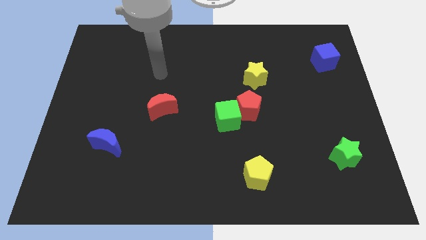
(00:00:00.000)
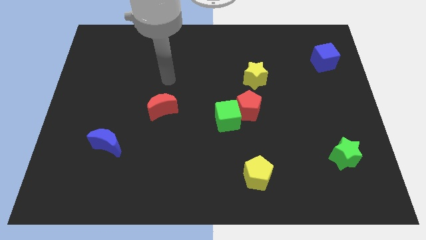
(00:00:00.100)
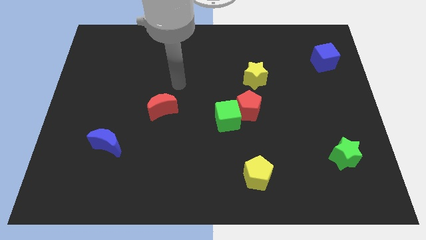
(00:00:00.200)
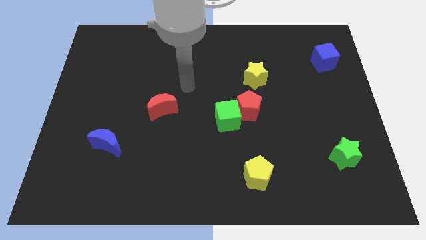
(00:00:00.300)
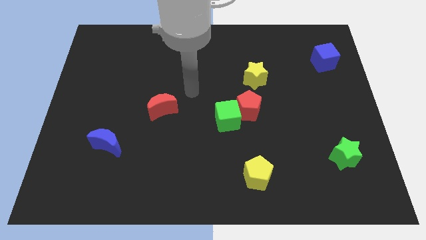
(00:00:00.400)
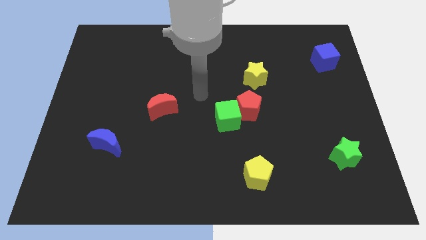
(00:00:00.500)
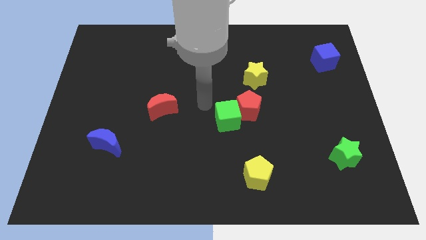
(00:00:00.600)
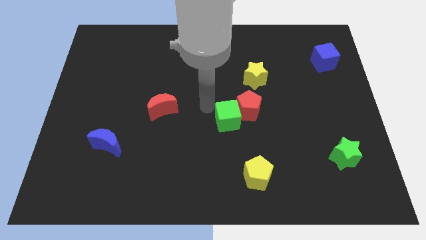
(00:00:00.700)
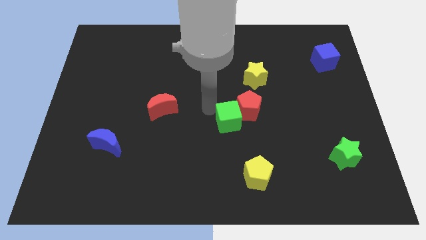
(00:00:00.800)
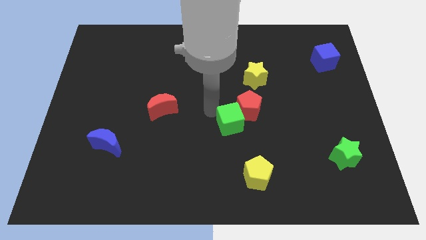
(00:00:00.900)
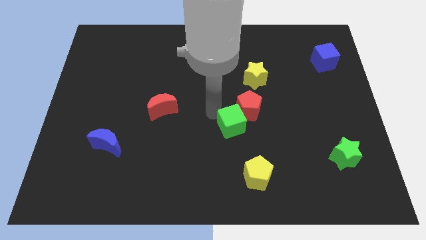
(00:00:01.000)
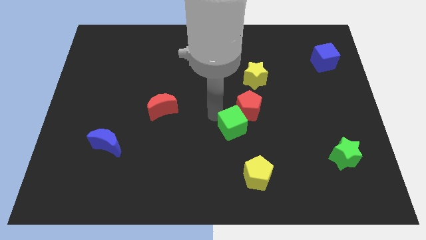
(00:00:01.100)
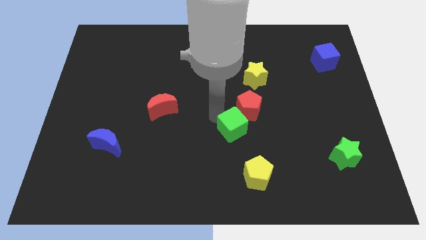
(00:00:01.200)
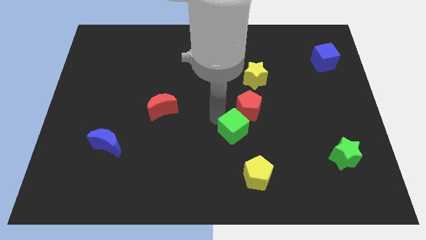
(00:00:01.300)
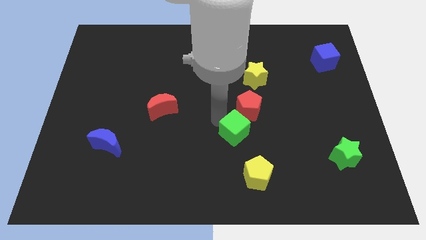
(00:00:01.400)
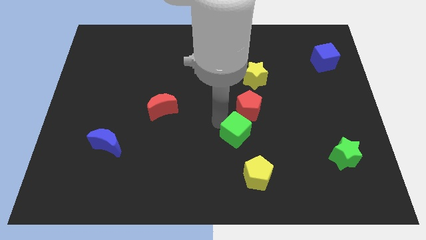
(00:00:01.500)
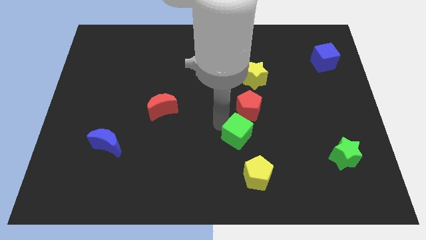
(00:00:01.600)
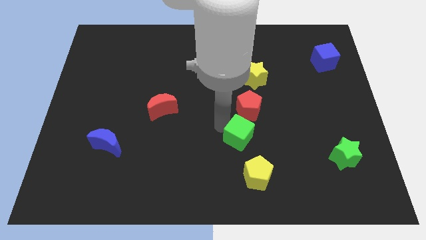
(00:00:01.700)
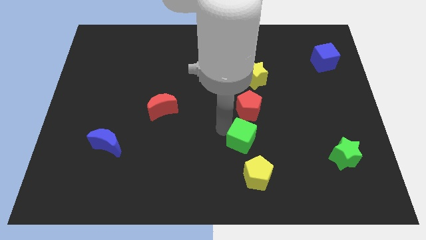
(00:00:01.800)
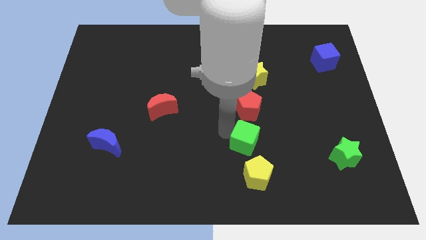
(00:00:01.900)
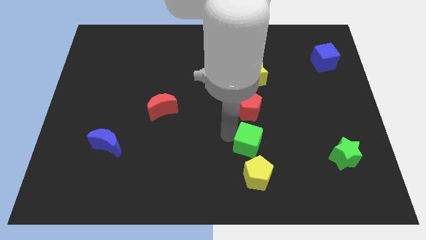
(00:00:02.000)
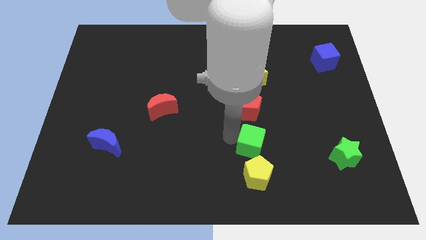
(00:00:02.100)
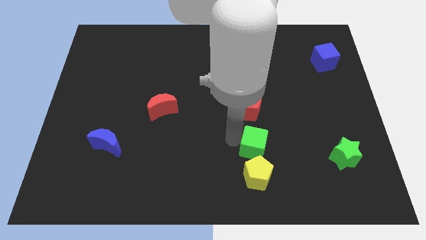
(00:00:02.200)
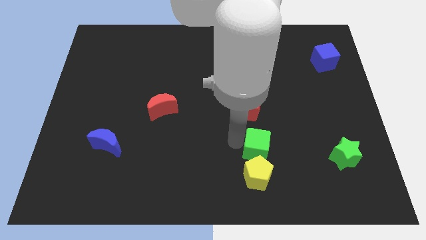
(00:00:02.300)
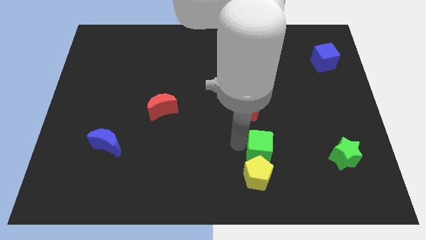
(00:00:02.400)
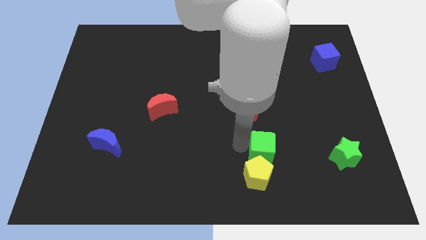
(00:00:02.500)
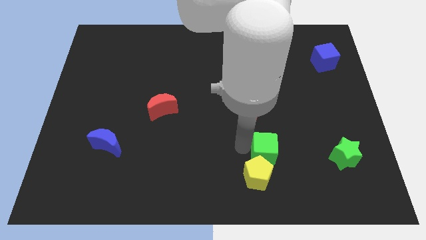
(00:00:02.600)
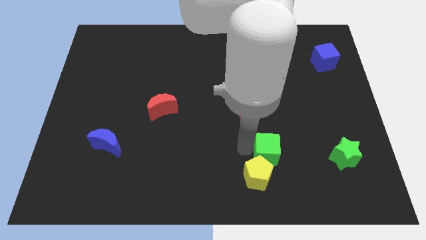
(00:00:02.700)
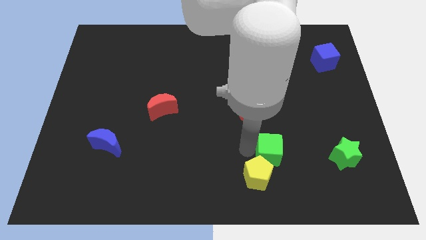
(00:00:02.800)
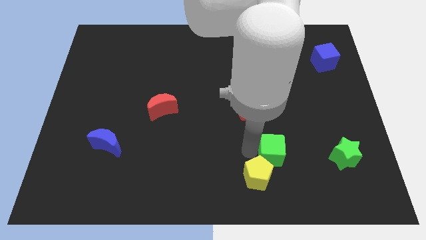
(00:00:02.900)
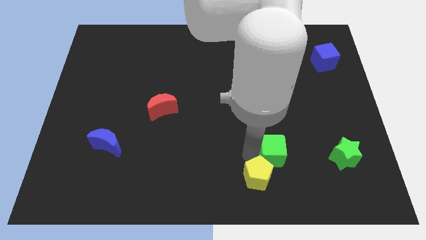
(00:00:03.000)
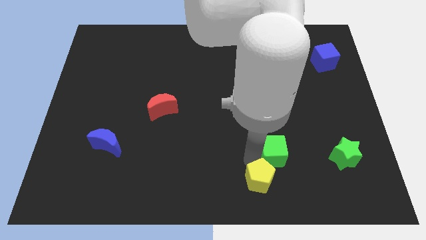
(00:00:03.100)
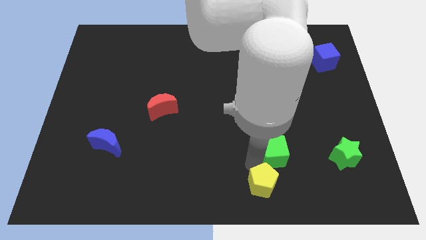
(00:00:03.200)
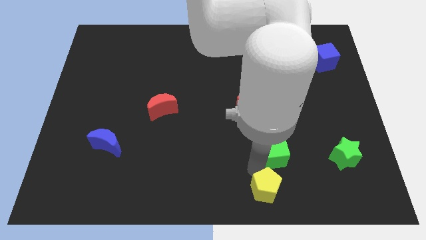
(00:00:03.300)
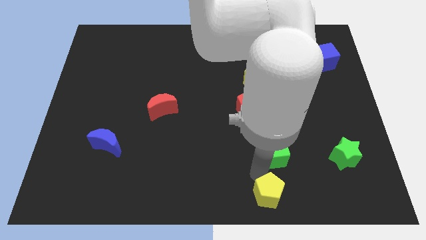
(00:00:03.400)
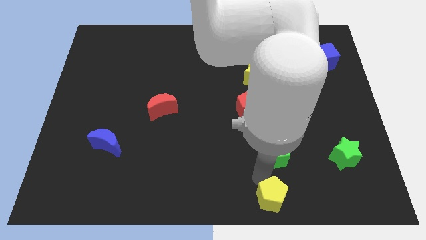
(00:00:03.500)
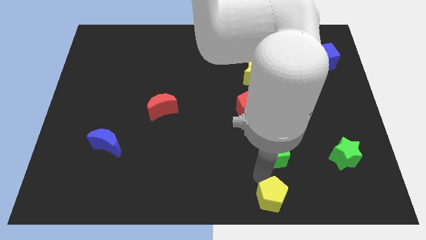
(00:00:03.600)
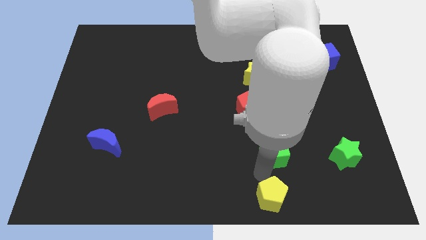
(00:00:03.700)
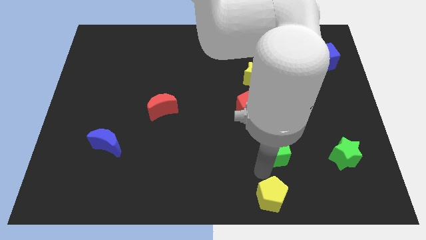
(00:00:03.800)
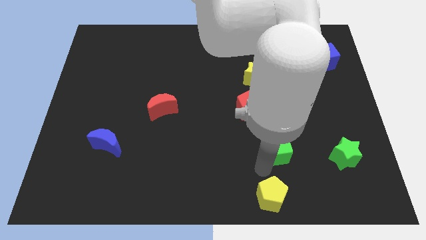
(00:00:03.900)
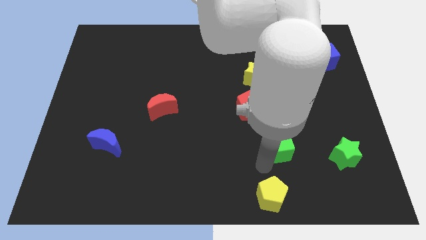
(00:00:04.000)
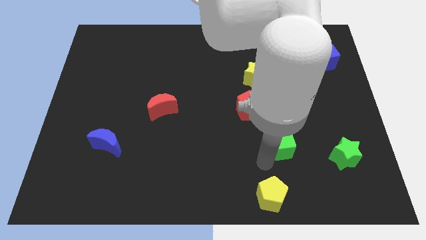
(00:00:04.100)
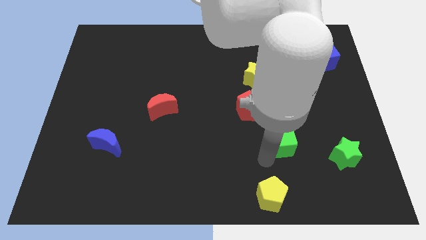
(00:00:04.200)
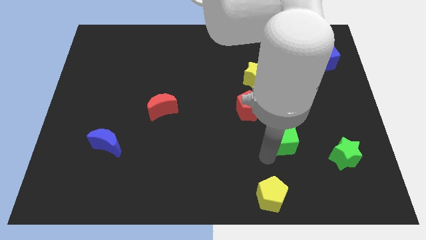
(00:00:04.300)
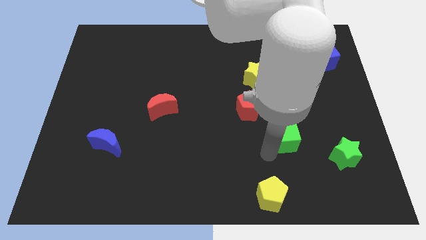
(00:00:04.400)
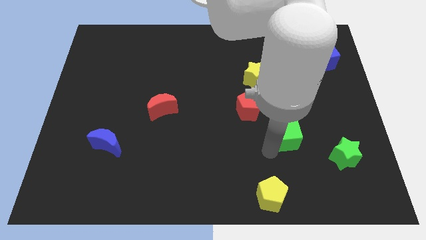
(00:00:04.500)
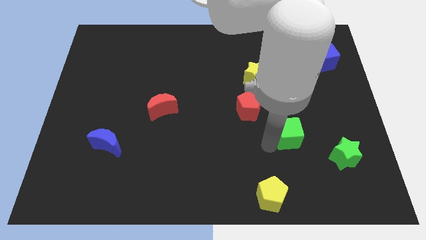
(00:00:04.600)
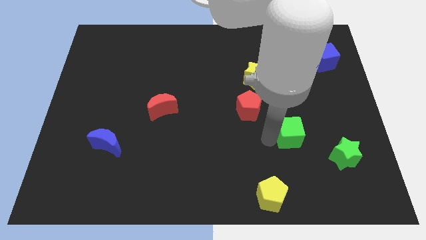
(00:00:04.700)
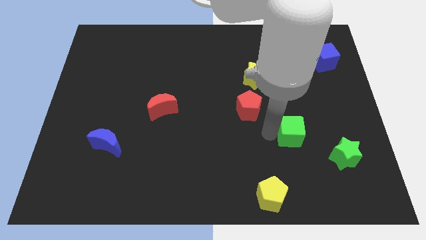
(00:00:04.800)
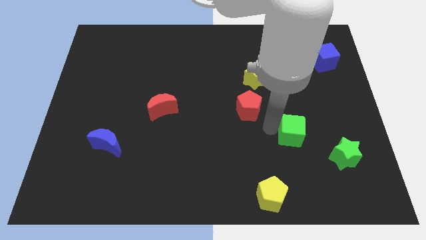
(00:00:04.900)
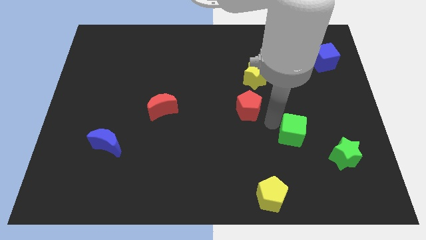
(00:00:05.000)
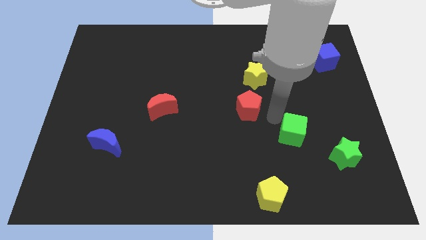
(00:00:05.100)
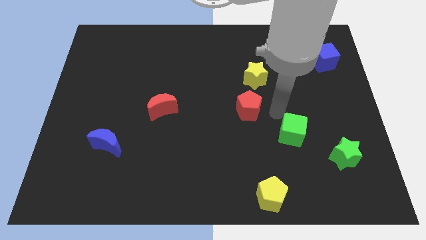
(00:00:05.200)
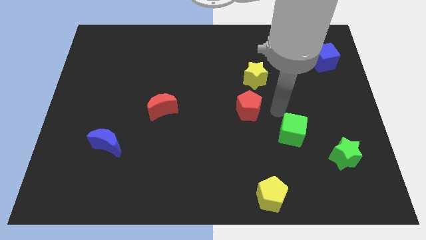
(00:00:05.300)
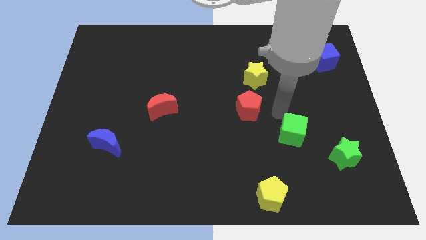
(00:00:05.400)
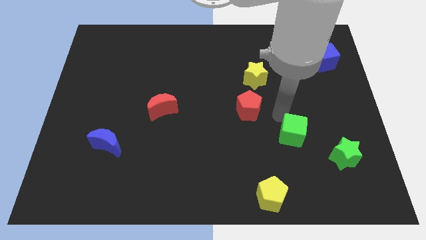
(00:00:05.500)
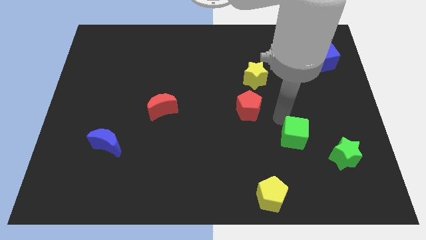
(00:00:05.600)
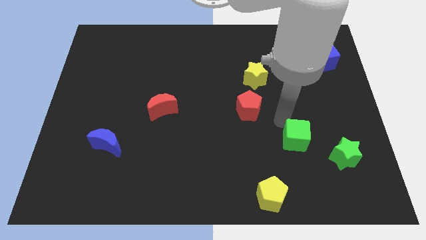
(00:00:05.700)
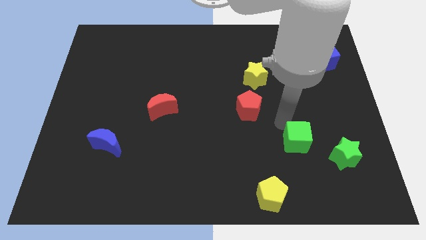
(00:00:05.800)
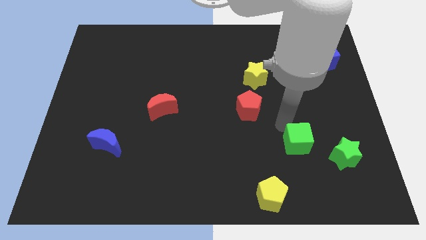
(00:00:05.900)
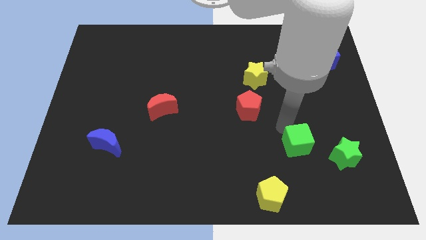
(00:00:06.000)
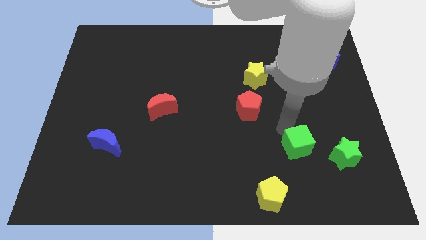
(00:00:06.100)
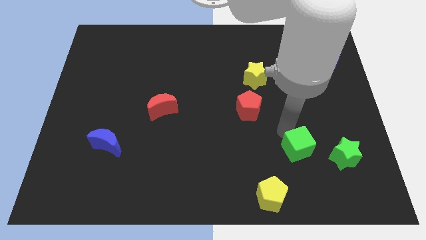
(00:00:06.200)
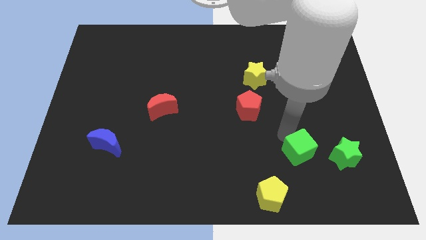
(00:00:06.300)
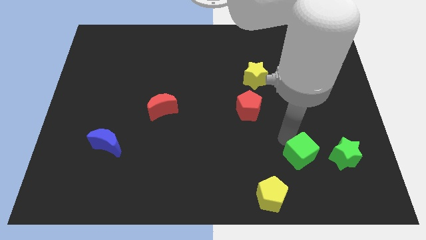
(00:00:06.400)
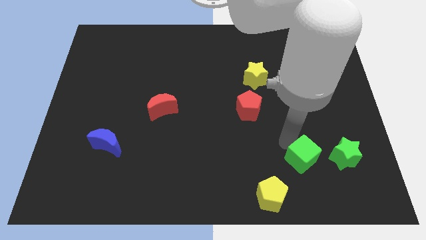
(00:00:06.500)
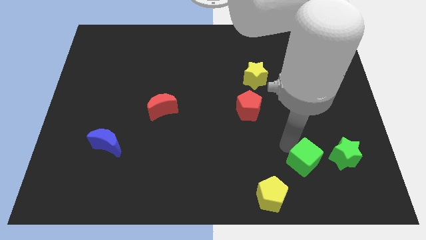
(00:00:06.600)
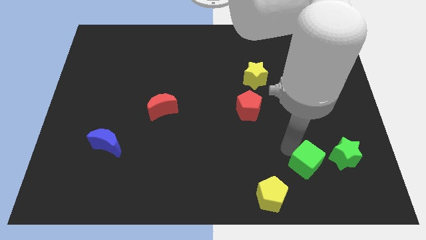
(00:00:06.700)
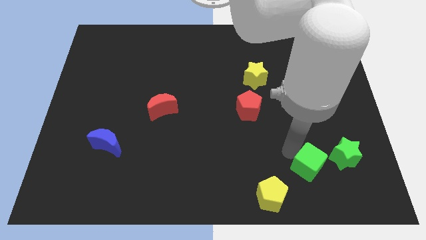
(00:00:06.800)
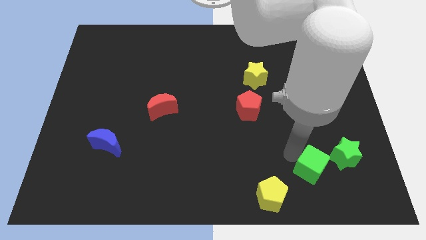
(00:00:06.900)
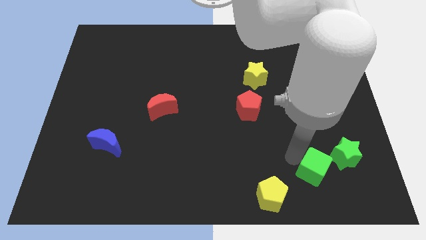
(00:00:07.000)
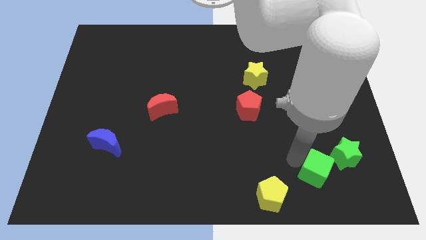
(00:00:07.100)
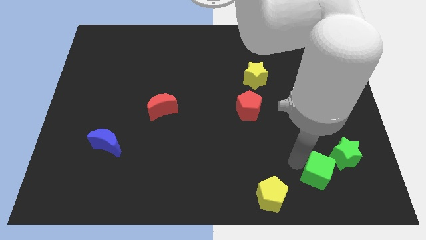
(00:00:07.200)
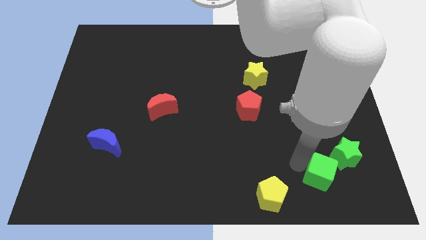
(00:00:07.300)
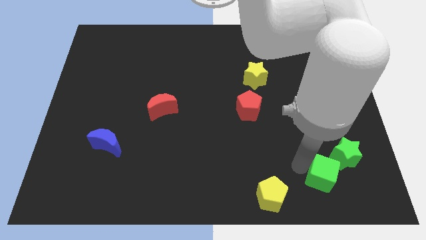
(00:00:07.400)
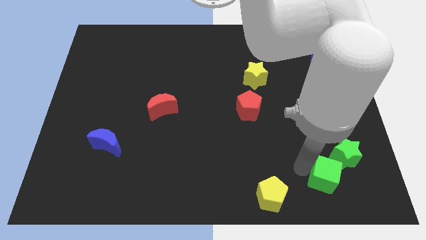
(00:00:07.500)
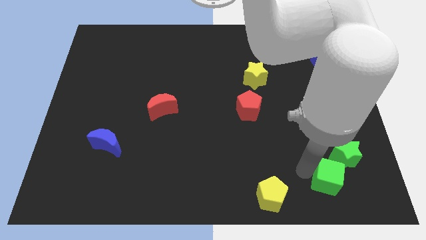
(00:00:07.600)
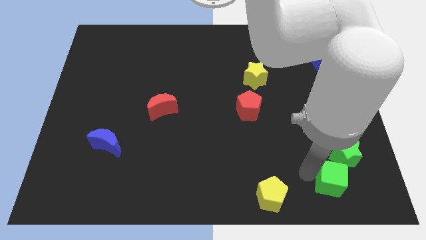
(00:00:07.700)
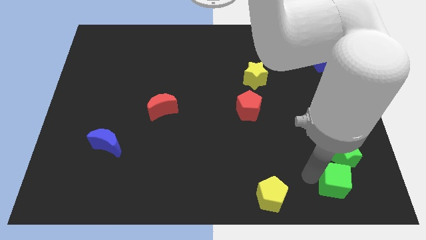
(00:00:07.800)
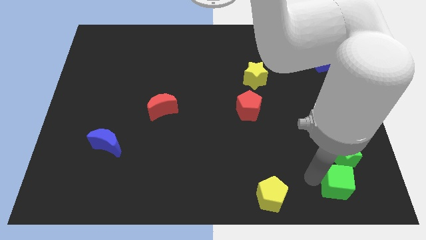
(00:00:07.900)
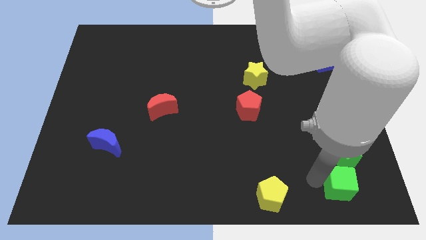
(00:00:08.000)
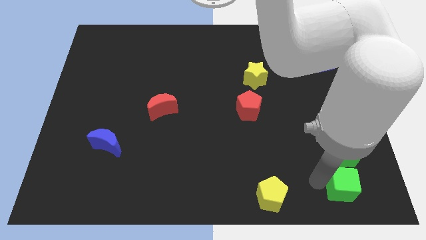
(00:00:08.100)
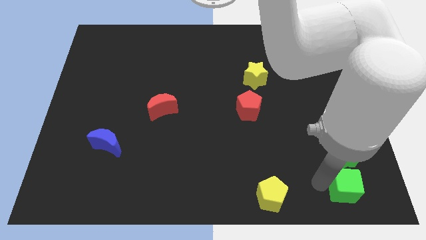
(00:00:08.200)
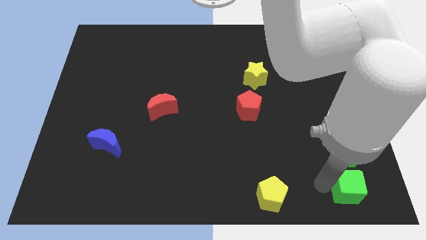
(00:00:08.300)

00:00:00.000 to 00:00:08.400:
slide the green cube to the bottom right corner
